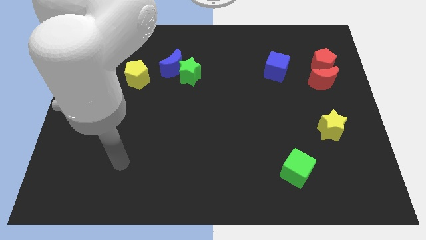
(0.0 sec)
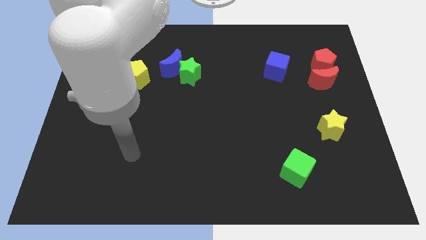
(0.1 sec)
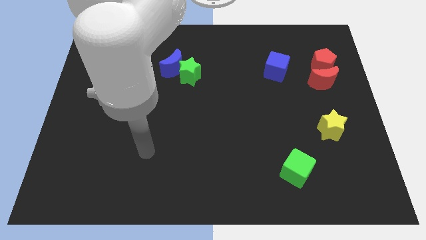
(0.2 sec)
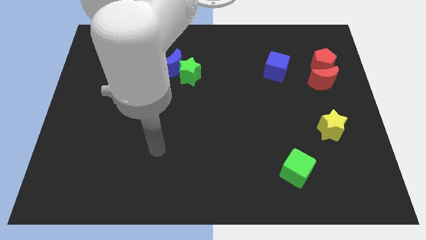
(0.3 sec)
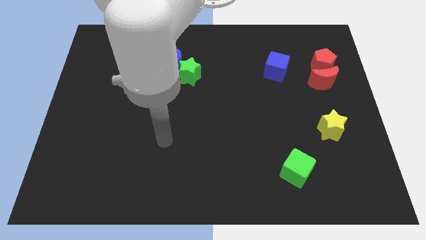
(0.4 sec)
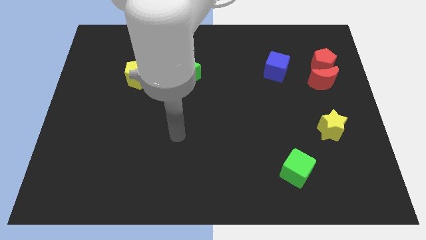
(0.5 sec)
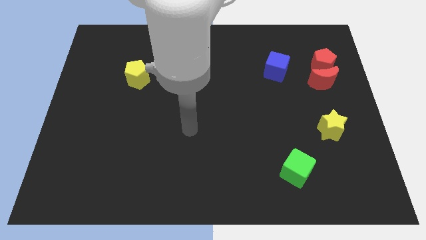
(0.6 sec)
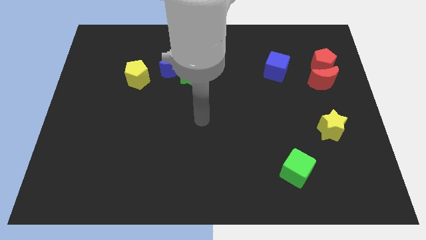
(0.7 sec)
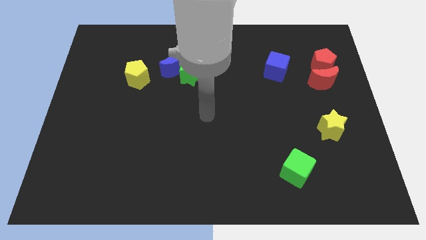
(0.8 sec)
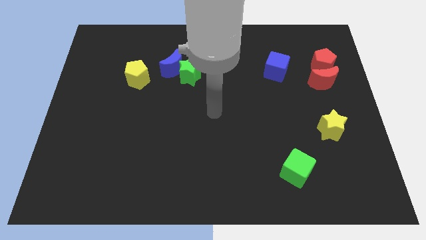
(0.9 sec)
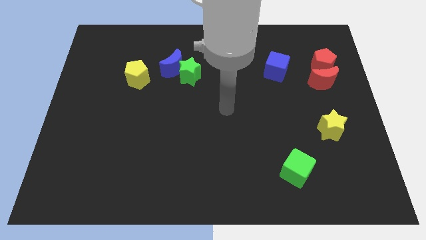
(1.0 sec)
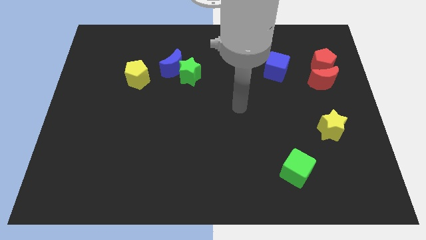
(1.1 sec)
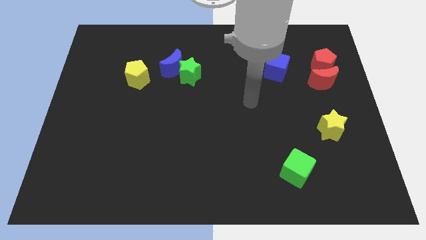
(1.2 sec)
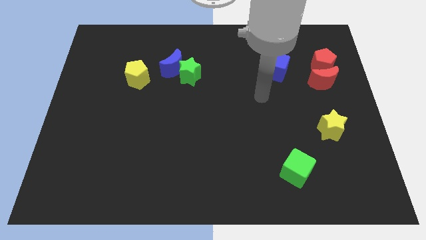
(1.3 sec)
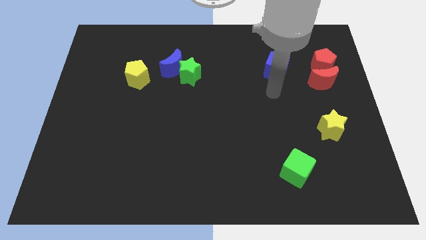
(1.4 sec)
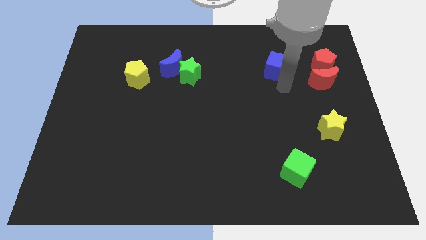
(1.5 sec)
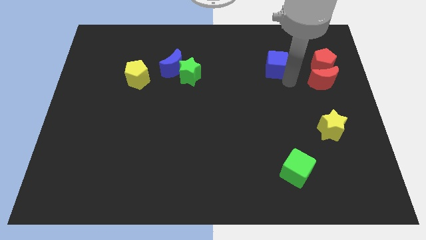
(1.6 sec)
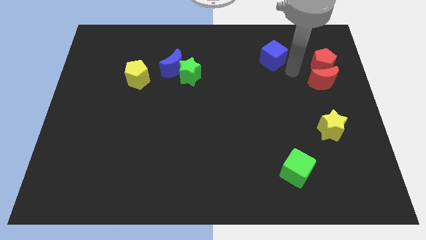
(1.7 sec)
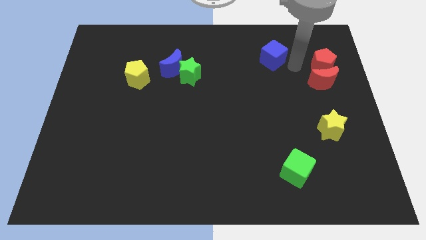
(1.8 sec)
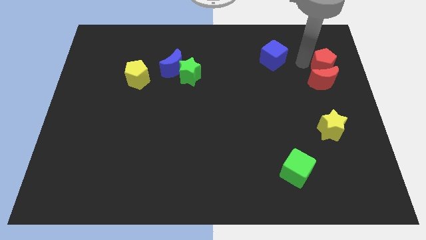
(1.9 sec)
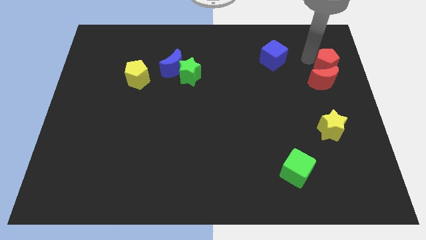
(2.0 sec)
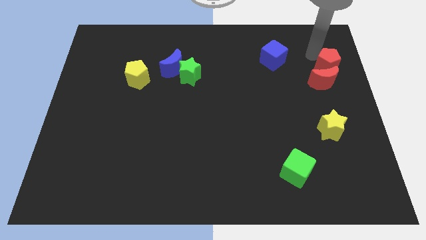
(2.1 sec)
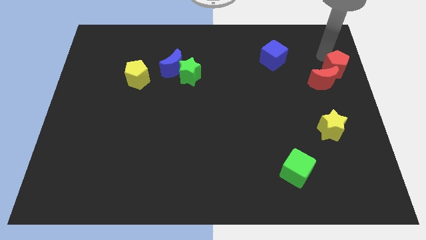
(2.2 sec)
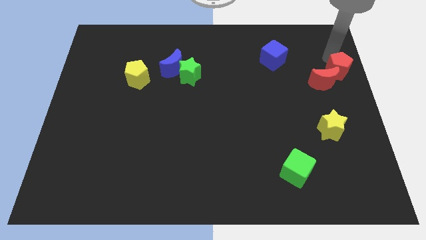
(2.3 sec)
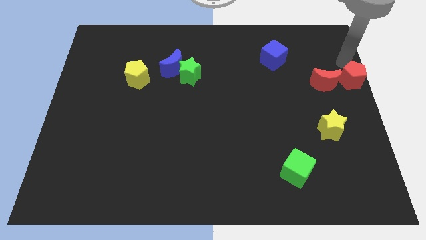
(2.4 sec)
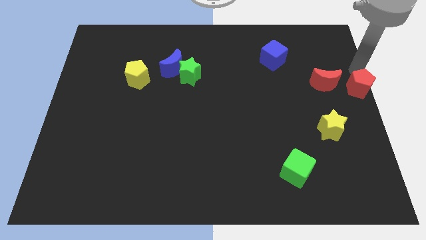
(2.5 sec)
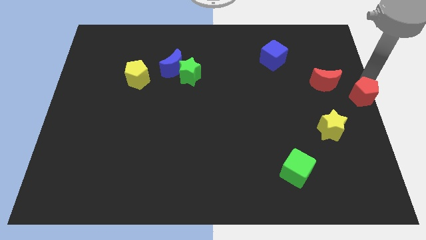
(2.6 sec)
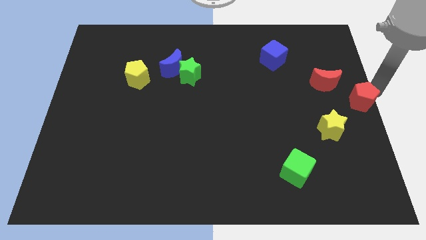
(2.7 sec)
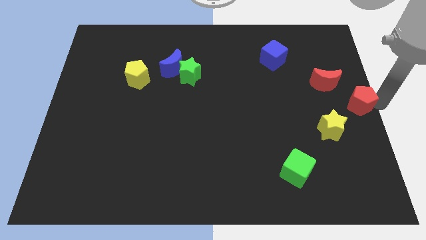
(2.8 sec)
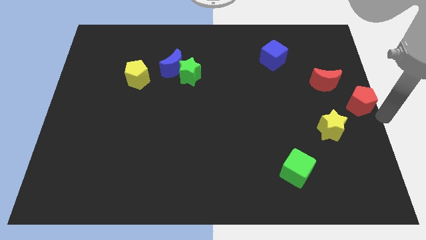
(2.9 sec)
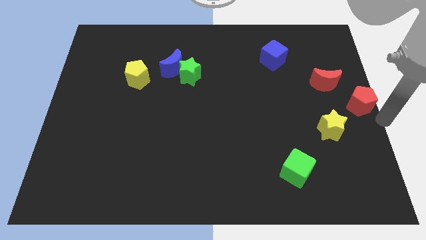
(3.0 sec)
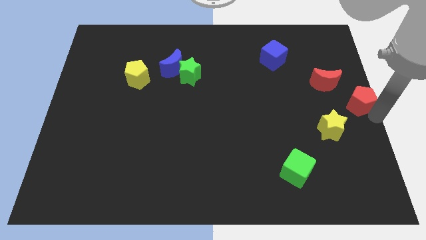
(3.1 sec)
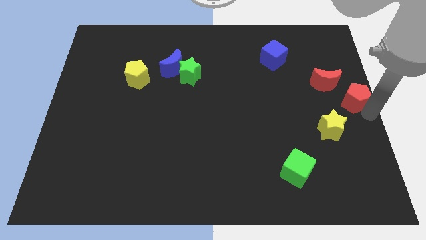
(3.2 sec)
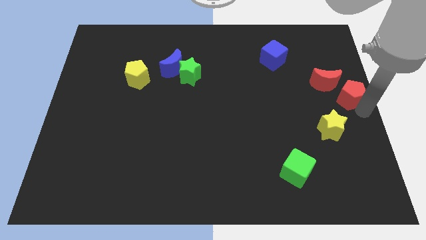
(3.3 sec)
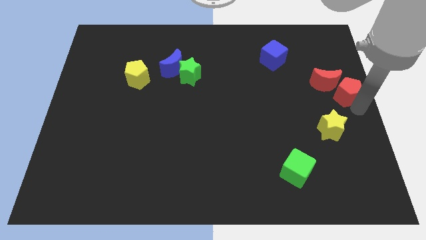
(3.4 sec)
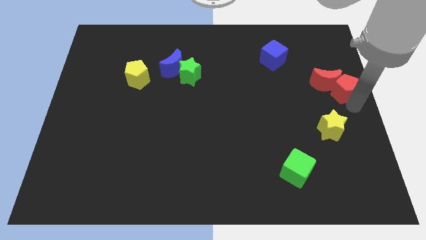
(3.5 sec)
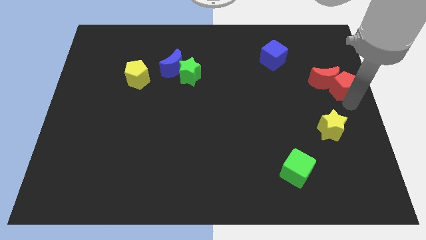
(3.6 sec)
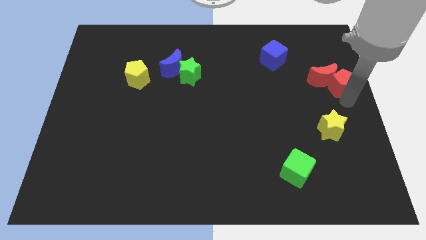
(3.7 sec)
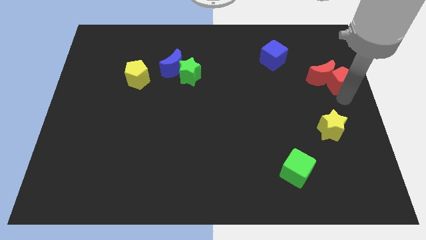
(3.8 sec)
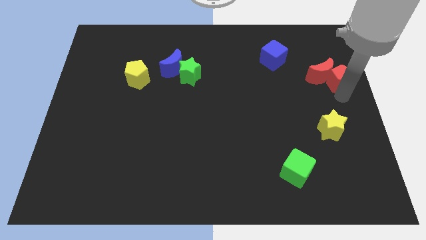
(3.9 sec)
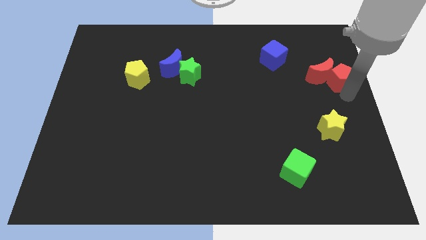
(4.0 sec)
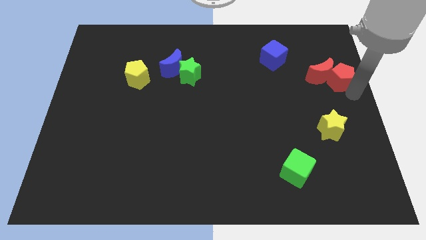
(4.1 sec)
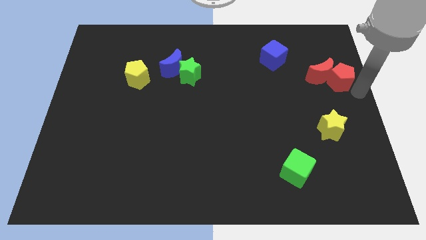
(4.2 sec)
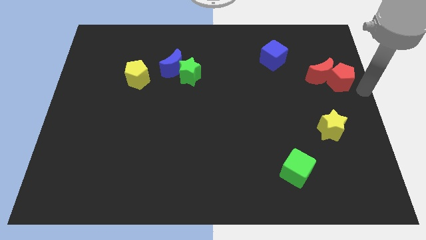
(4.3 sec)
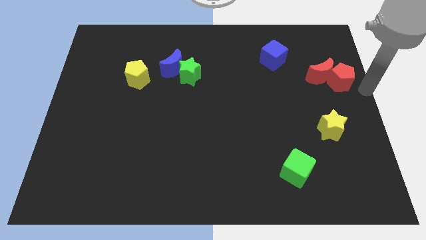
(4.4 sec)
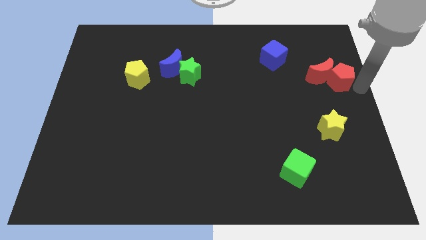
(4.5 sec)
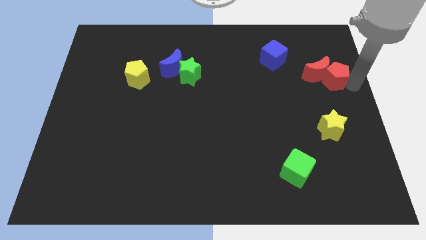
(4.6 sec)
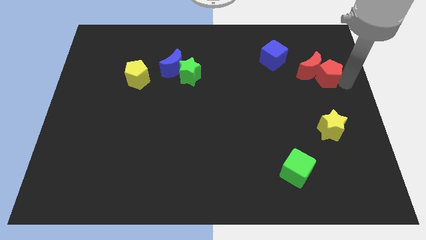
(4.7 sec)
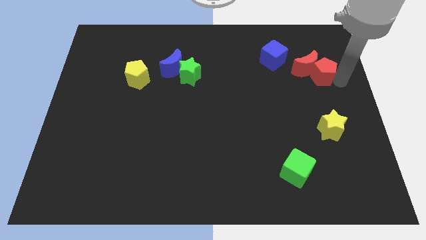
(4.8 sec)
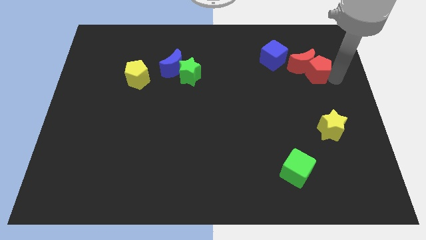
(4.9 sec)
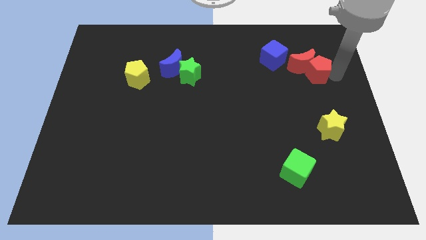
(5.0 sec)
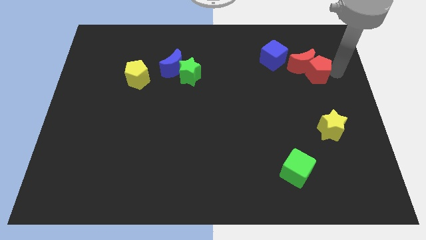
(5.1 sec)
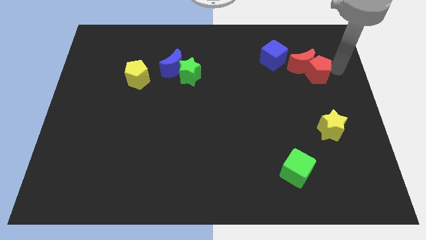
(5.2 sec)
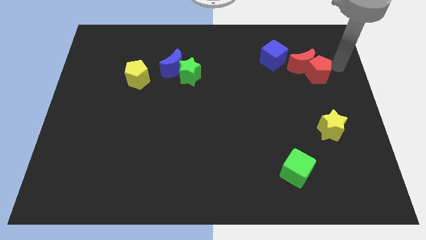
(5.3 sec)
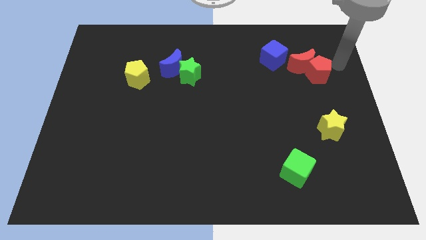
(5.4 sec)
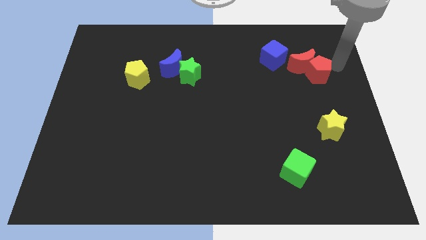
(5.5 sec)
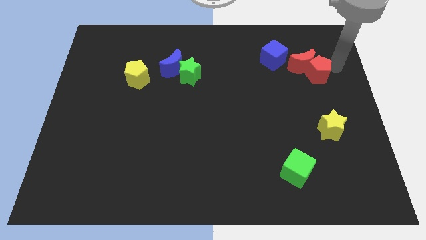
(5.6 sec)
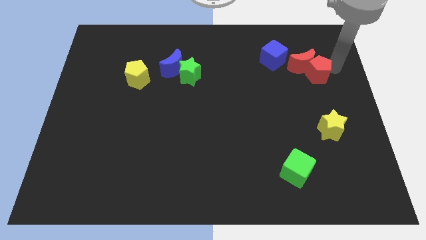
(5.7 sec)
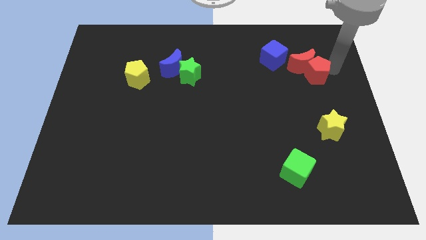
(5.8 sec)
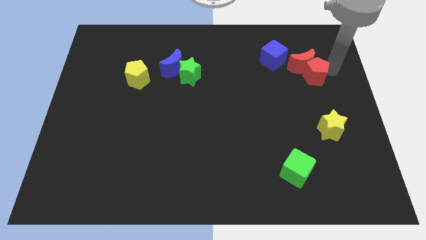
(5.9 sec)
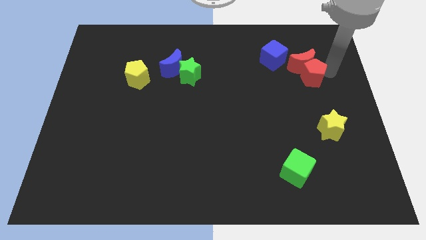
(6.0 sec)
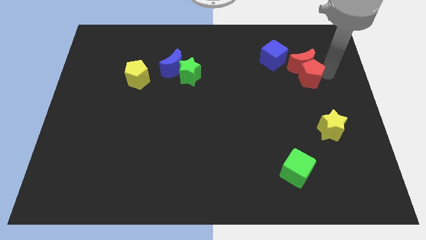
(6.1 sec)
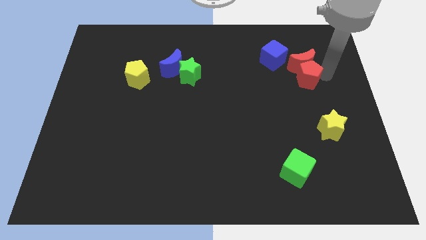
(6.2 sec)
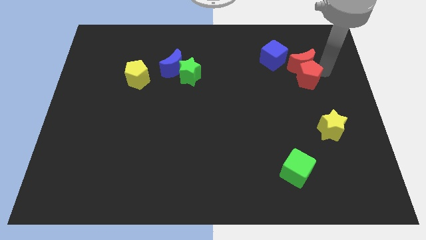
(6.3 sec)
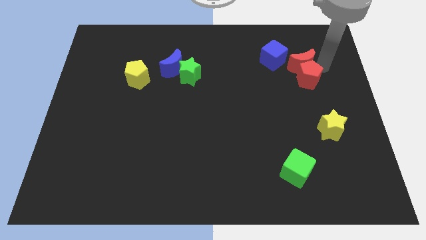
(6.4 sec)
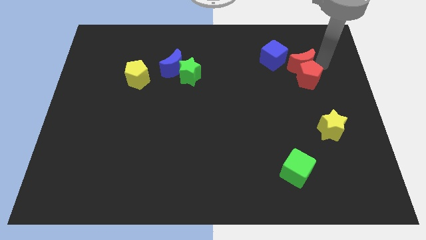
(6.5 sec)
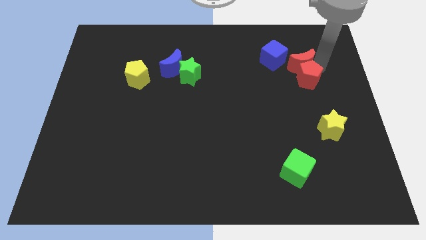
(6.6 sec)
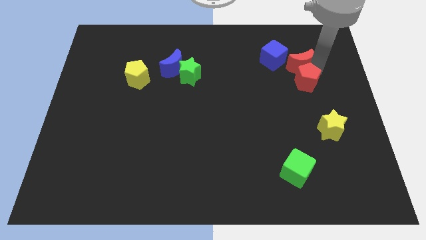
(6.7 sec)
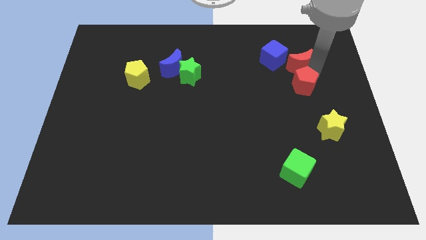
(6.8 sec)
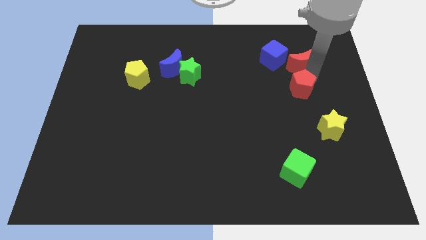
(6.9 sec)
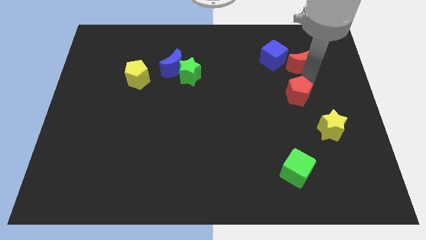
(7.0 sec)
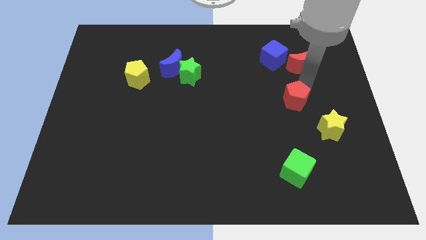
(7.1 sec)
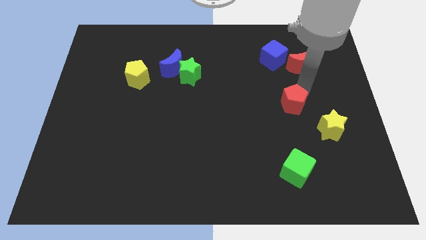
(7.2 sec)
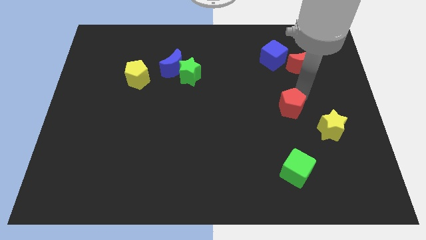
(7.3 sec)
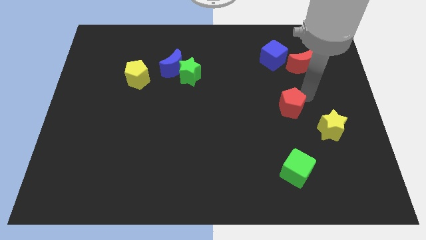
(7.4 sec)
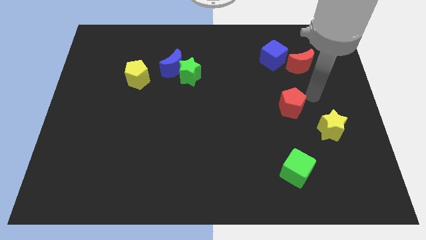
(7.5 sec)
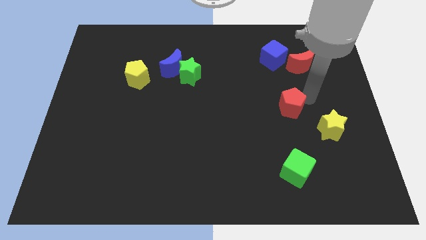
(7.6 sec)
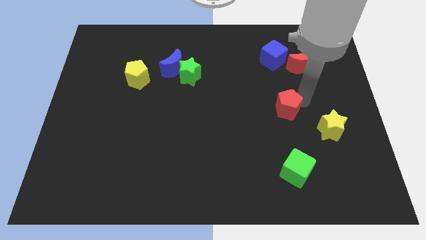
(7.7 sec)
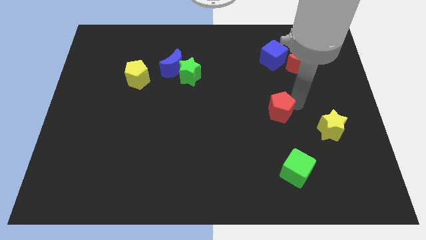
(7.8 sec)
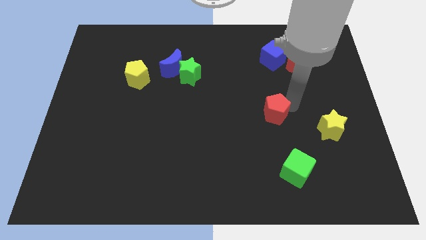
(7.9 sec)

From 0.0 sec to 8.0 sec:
move the red pentagon diagonally down and to the left

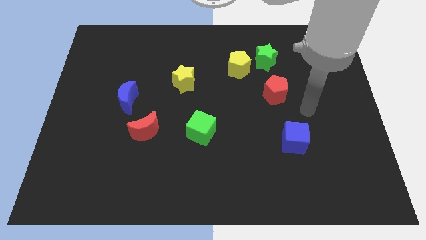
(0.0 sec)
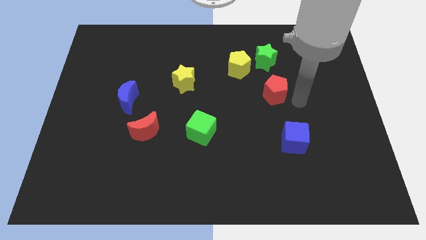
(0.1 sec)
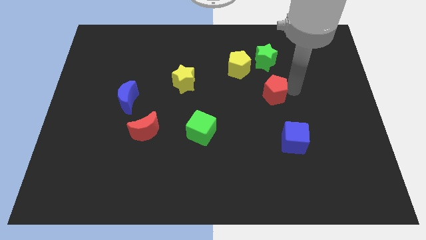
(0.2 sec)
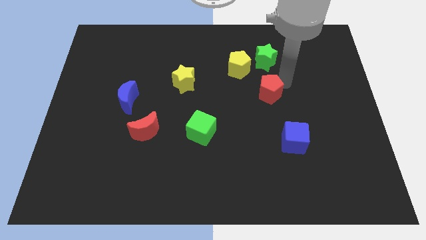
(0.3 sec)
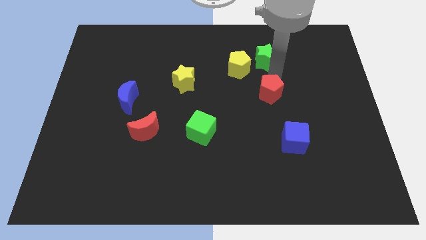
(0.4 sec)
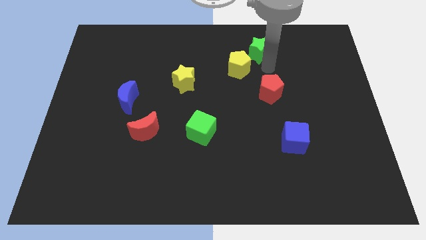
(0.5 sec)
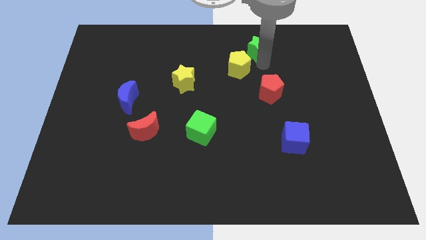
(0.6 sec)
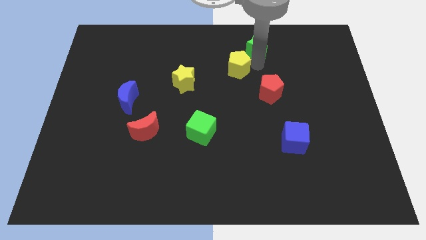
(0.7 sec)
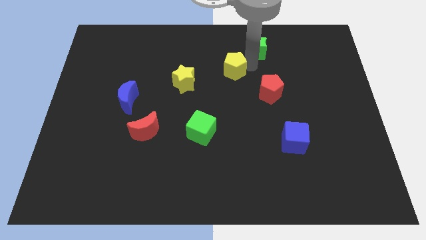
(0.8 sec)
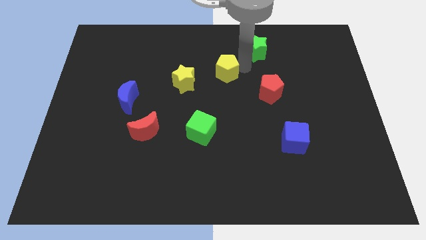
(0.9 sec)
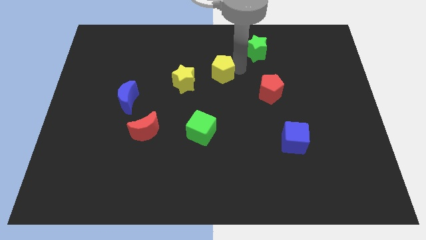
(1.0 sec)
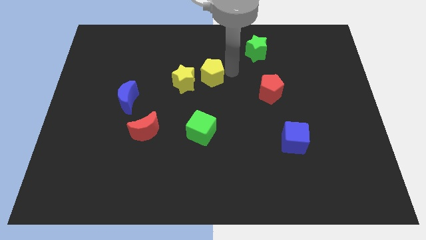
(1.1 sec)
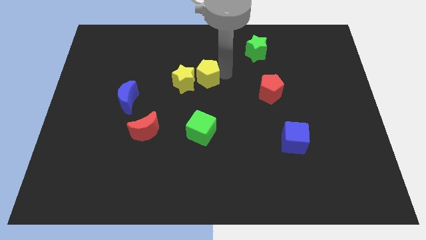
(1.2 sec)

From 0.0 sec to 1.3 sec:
move the yellow pentagon to the left slightly
